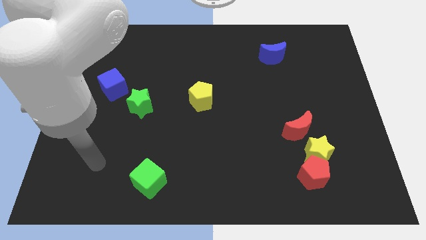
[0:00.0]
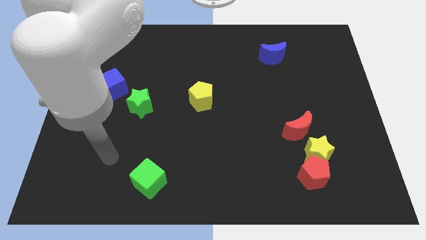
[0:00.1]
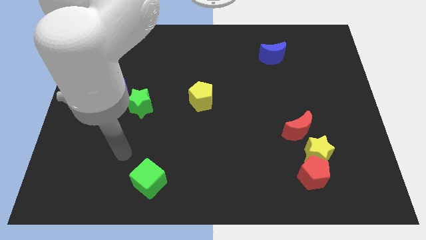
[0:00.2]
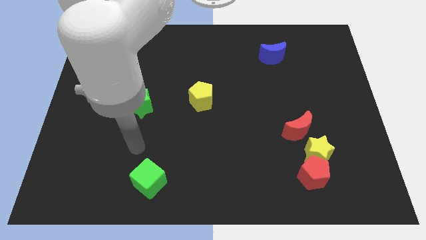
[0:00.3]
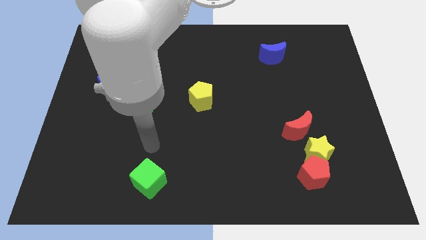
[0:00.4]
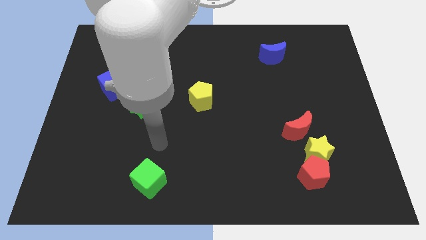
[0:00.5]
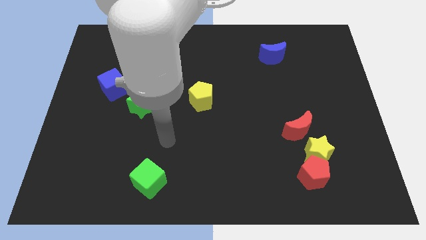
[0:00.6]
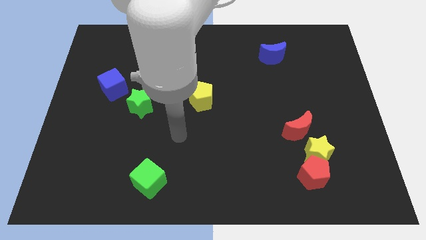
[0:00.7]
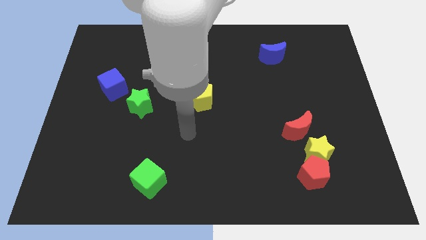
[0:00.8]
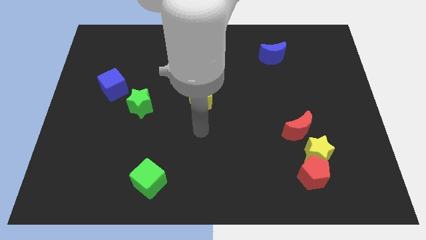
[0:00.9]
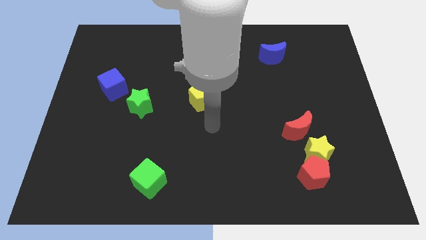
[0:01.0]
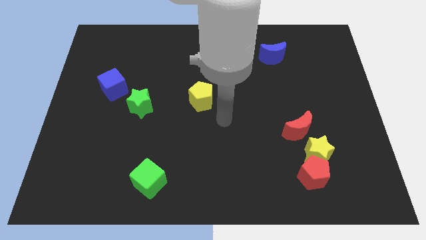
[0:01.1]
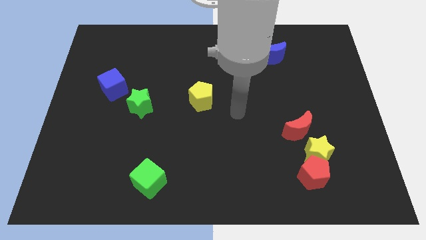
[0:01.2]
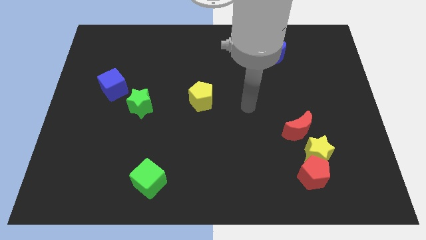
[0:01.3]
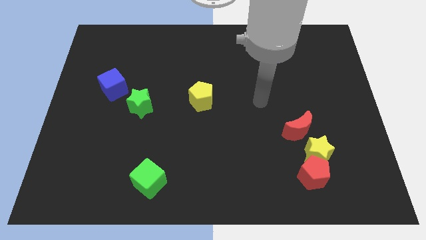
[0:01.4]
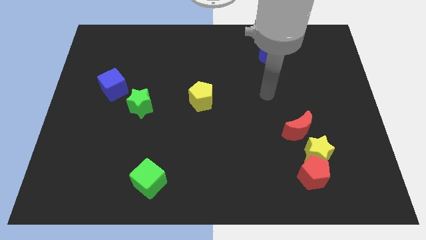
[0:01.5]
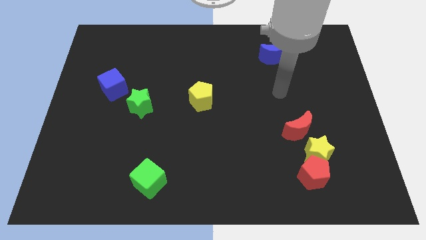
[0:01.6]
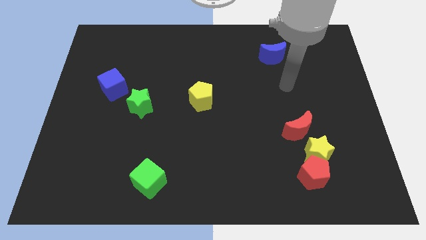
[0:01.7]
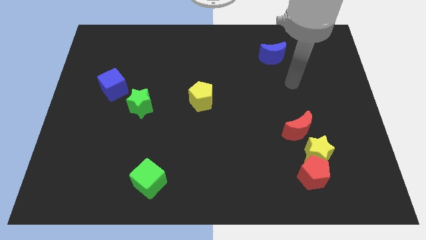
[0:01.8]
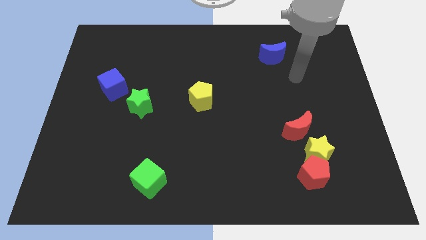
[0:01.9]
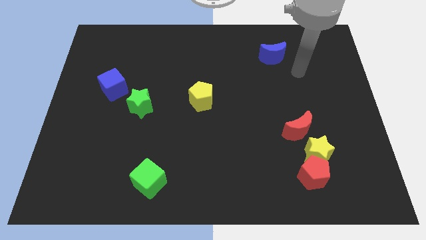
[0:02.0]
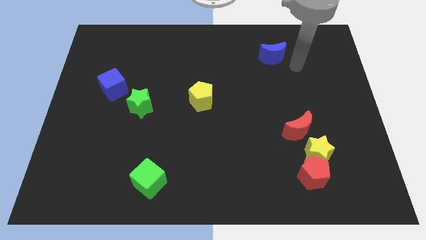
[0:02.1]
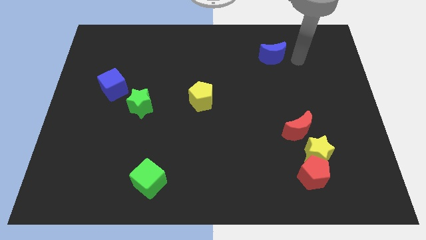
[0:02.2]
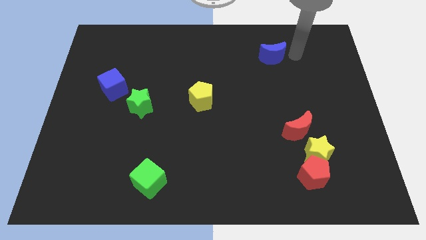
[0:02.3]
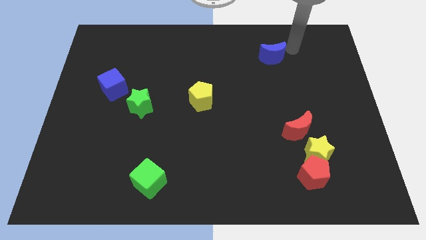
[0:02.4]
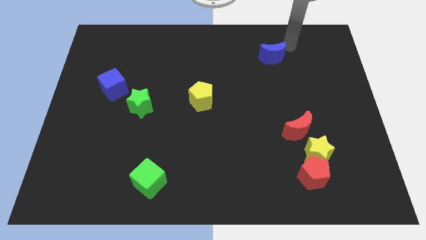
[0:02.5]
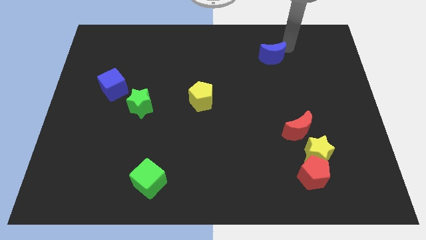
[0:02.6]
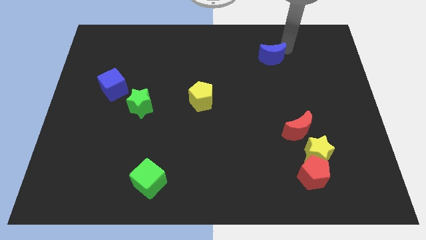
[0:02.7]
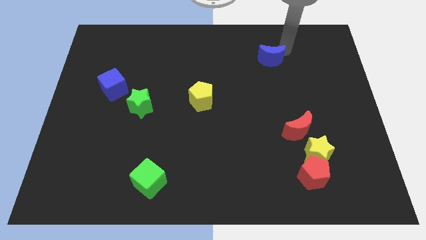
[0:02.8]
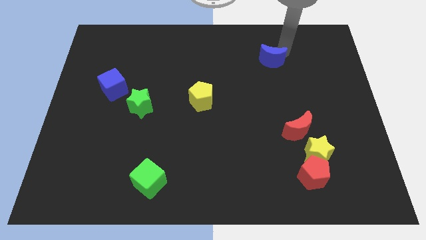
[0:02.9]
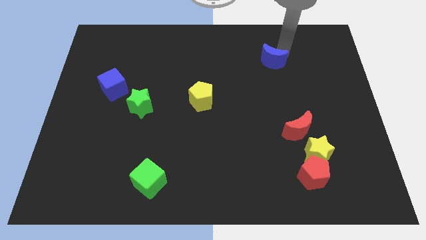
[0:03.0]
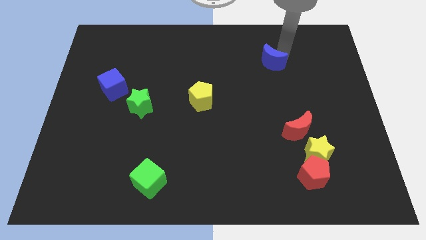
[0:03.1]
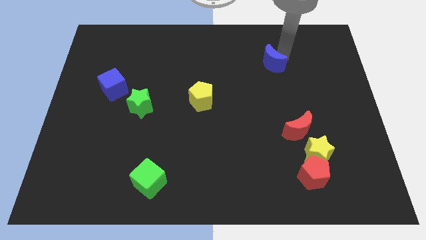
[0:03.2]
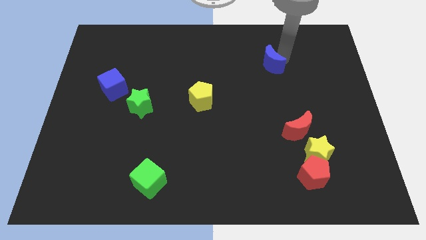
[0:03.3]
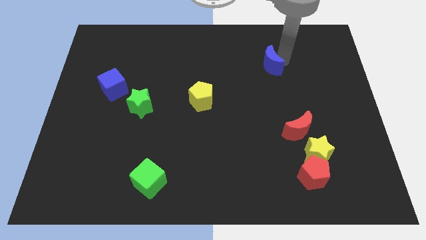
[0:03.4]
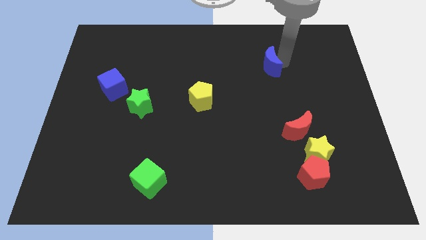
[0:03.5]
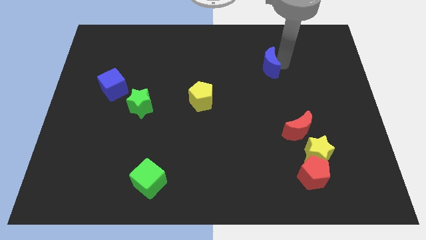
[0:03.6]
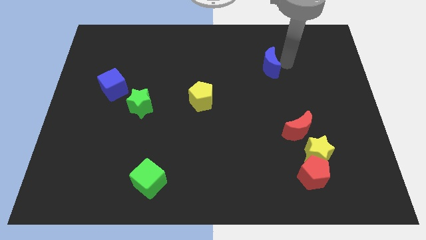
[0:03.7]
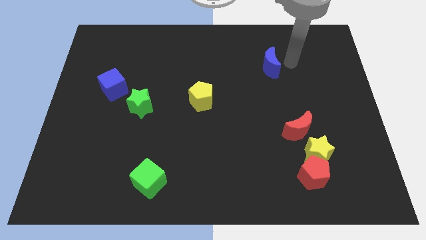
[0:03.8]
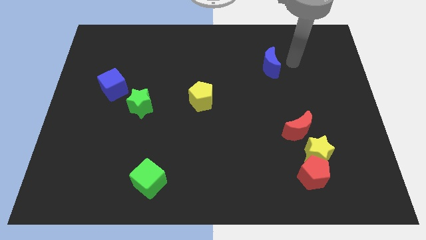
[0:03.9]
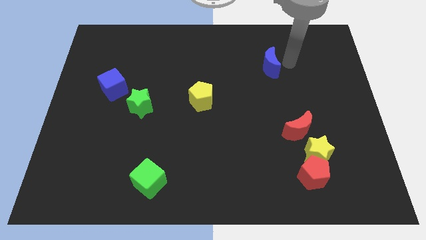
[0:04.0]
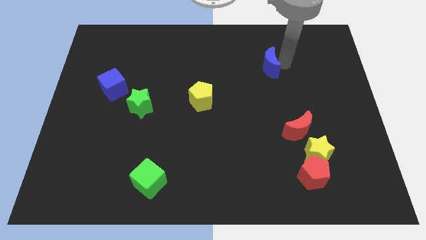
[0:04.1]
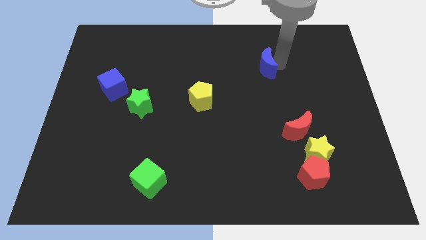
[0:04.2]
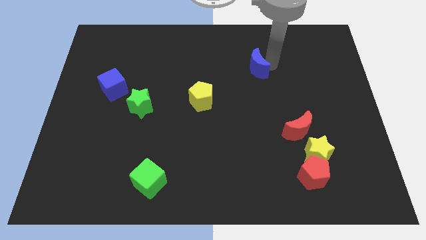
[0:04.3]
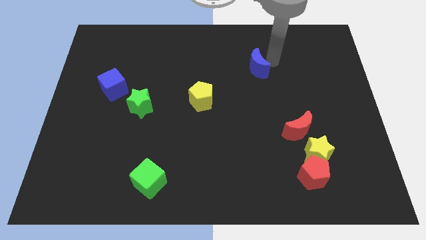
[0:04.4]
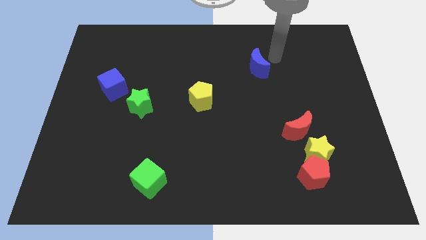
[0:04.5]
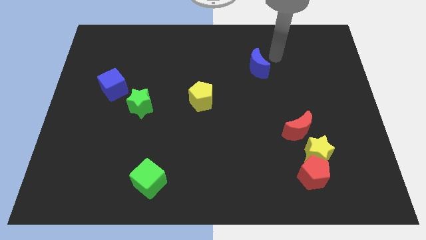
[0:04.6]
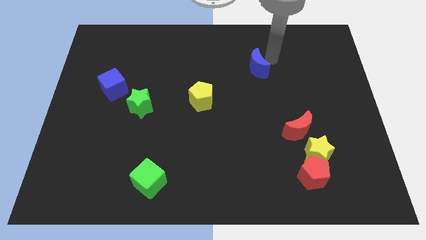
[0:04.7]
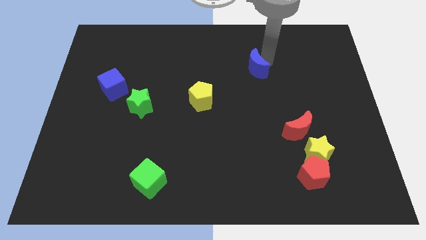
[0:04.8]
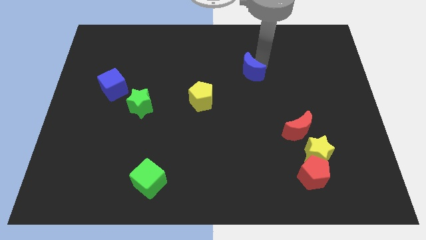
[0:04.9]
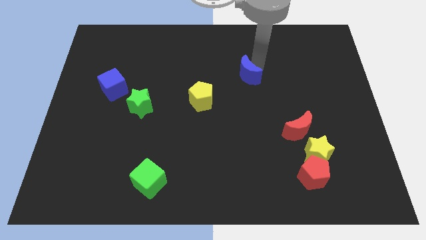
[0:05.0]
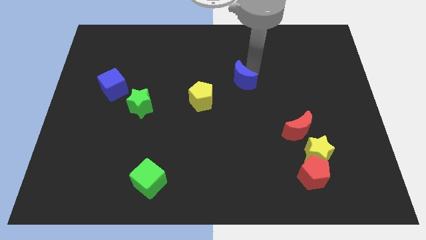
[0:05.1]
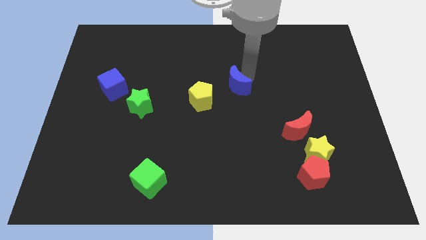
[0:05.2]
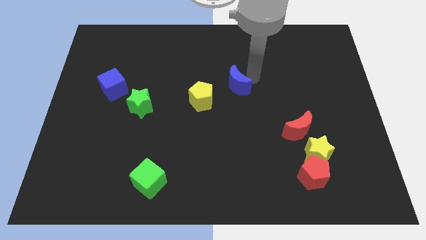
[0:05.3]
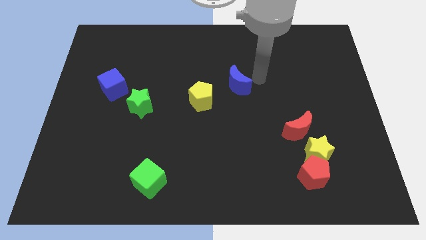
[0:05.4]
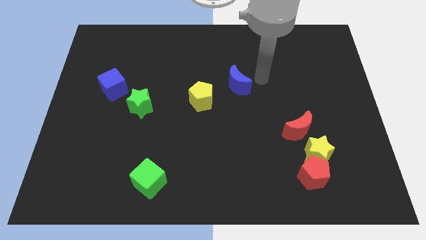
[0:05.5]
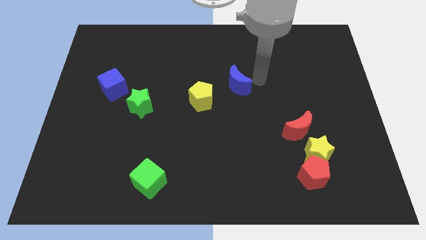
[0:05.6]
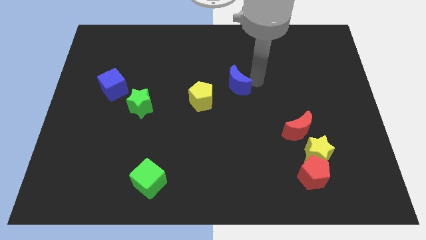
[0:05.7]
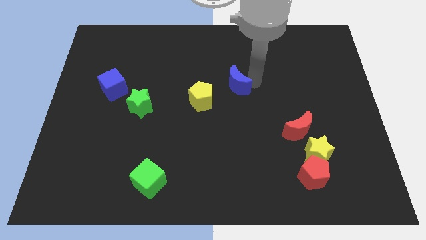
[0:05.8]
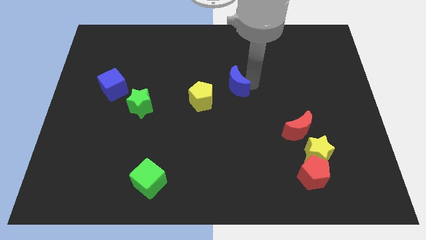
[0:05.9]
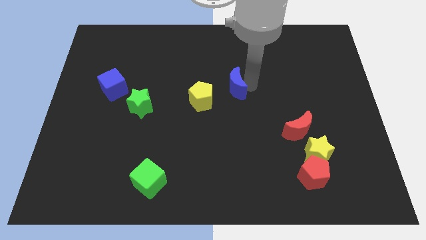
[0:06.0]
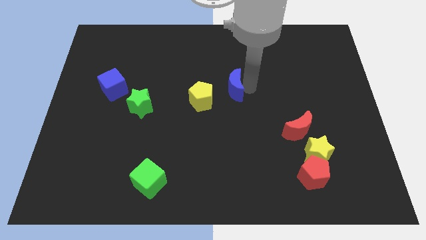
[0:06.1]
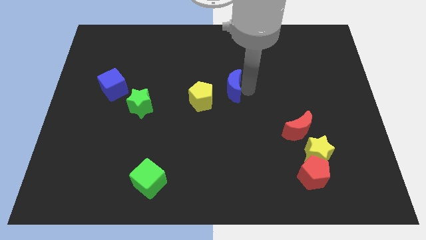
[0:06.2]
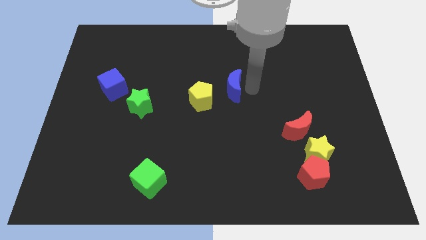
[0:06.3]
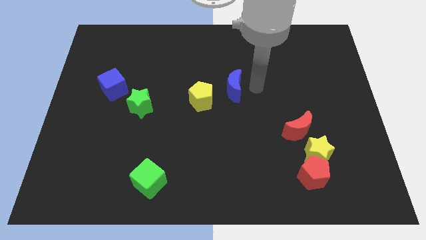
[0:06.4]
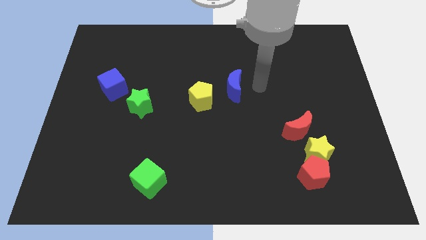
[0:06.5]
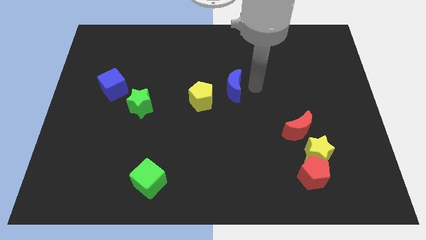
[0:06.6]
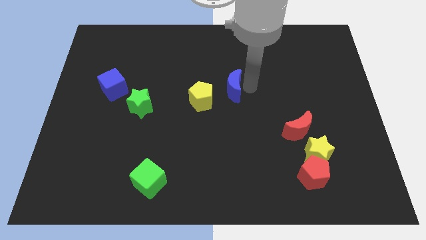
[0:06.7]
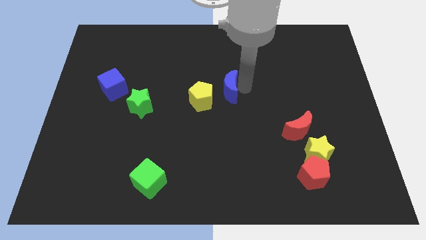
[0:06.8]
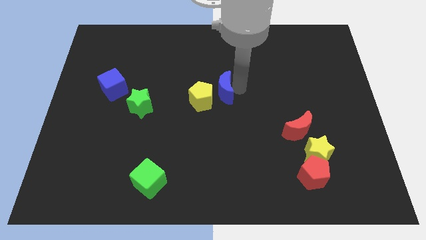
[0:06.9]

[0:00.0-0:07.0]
put the blue moon next to the yellow pentagon

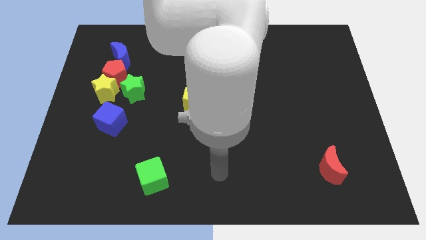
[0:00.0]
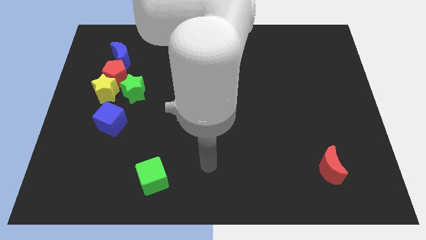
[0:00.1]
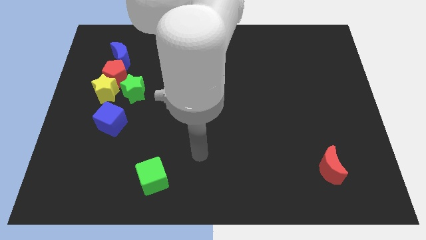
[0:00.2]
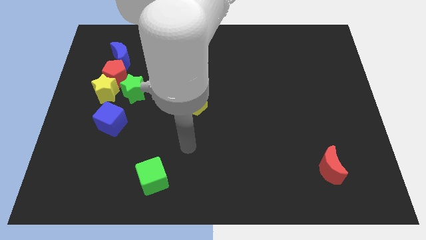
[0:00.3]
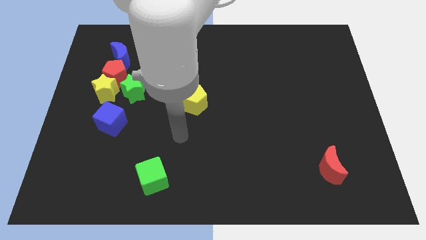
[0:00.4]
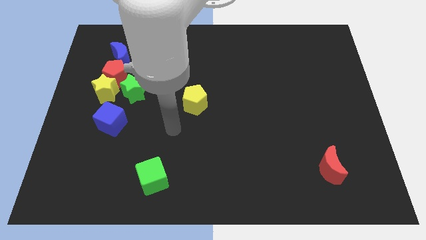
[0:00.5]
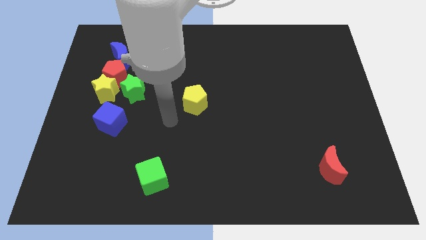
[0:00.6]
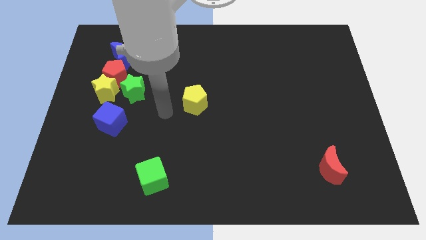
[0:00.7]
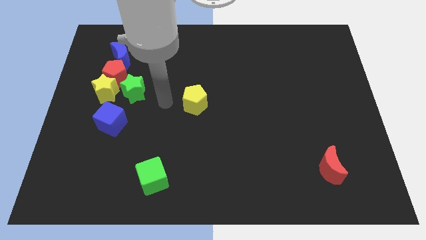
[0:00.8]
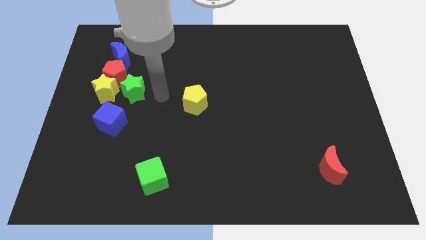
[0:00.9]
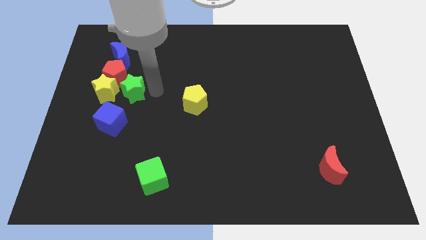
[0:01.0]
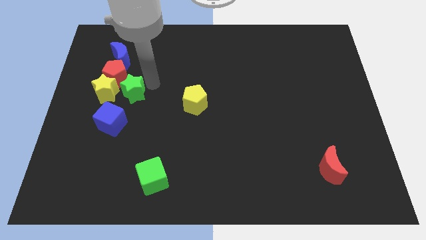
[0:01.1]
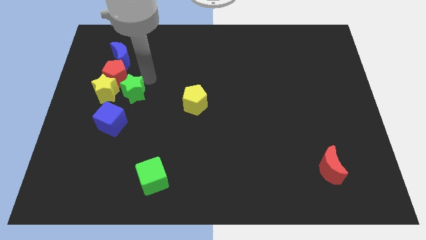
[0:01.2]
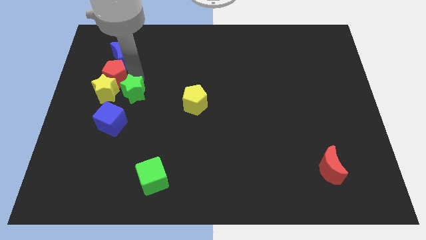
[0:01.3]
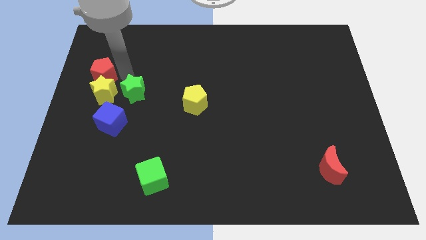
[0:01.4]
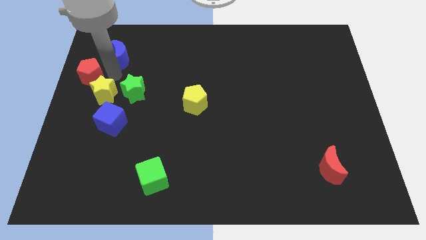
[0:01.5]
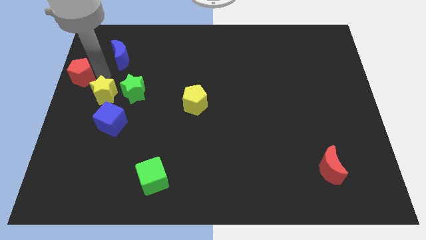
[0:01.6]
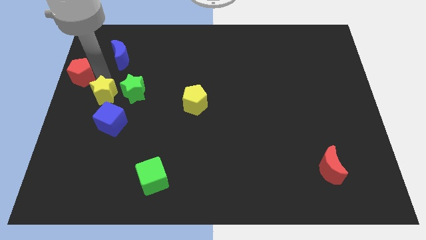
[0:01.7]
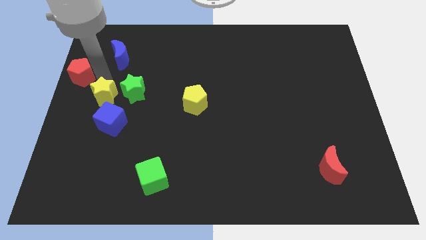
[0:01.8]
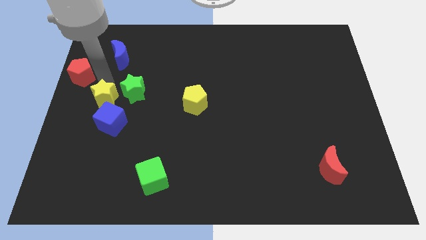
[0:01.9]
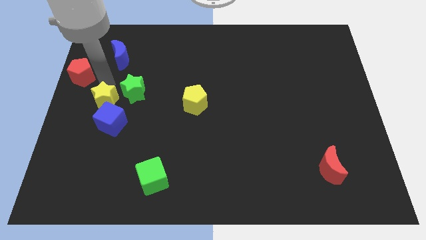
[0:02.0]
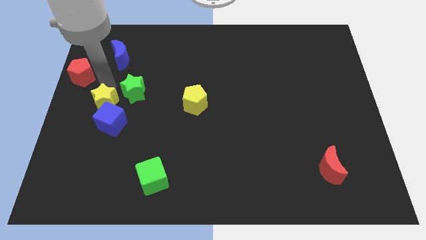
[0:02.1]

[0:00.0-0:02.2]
slide the yellow star next to the blue cube
